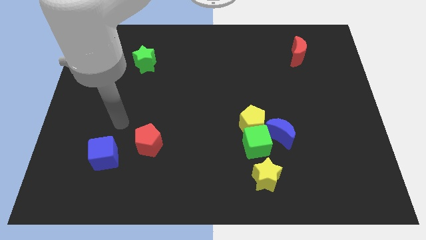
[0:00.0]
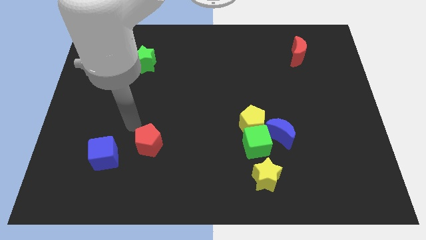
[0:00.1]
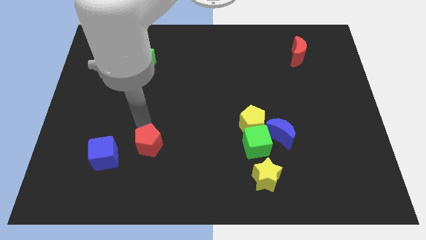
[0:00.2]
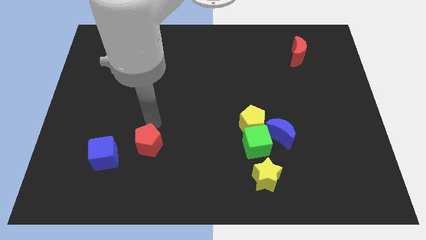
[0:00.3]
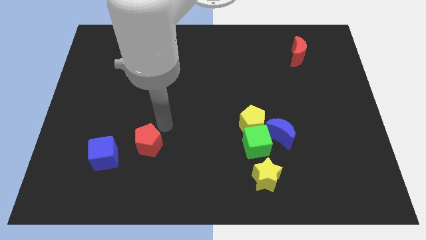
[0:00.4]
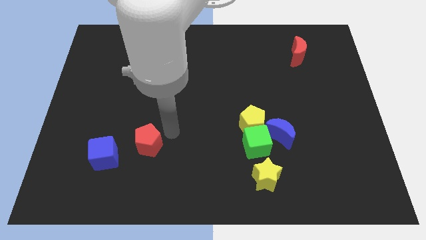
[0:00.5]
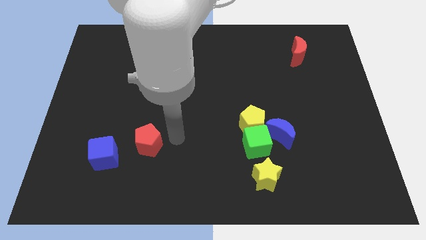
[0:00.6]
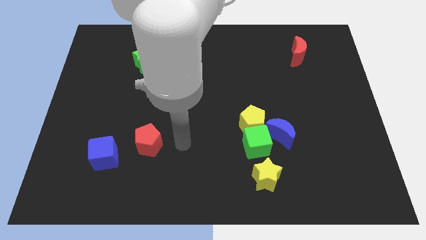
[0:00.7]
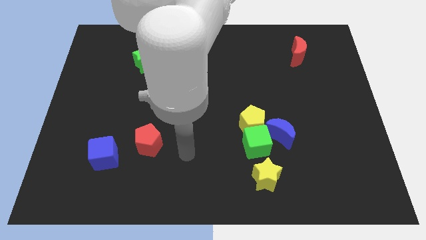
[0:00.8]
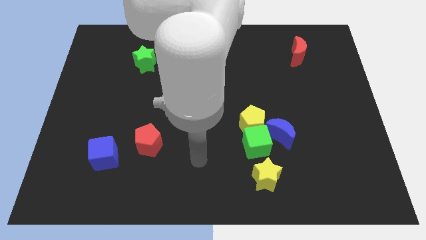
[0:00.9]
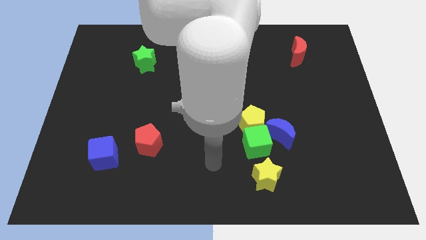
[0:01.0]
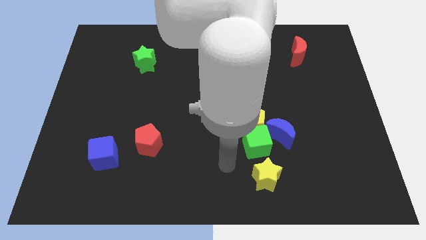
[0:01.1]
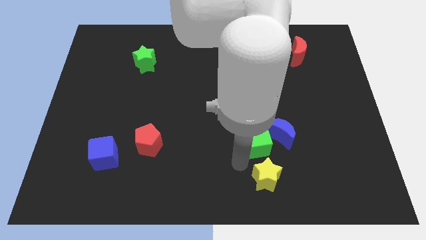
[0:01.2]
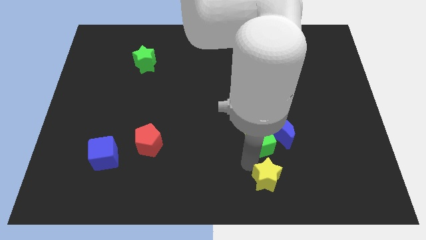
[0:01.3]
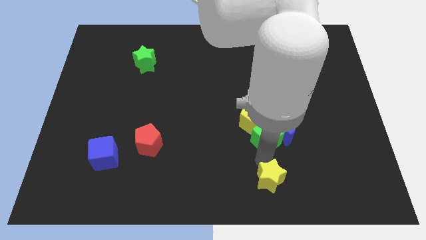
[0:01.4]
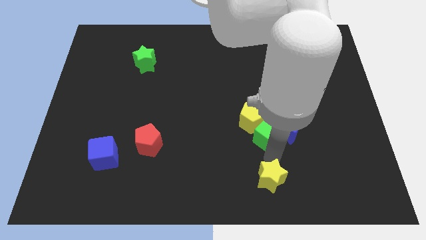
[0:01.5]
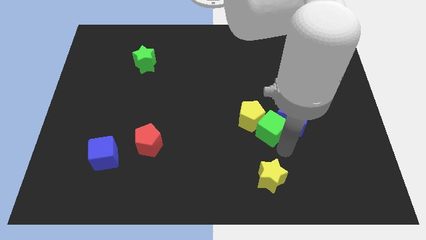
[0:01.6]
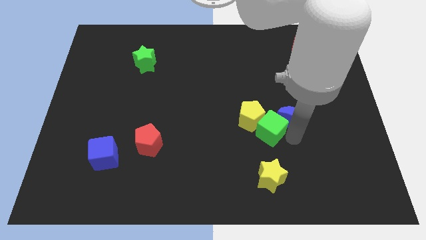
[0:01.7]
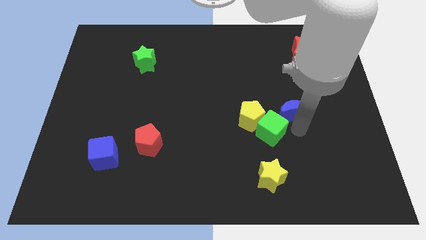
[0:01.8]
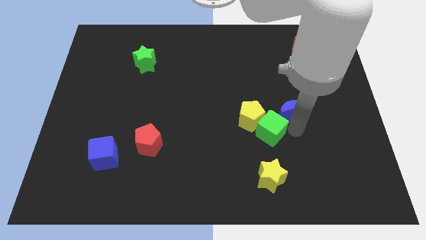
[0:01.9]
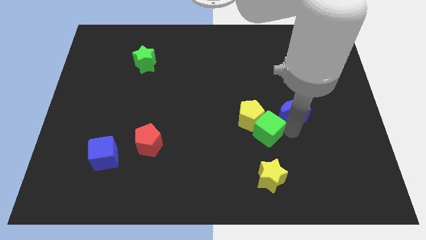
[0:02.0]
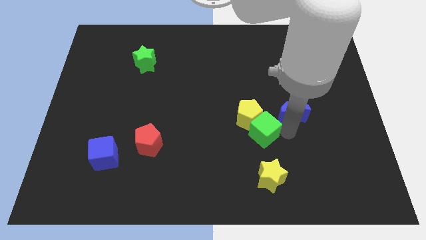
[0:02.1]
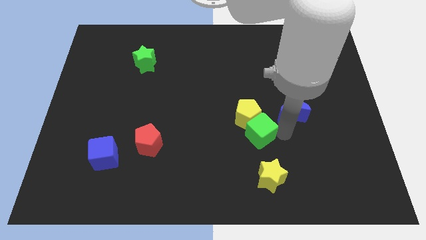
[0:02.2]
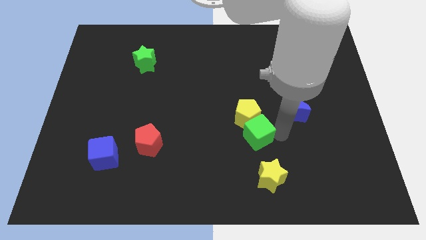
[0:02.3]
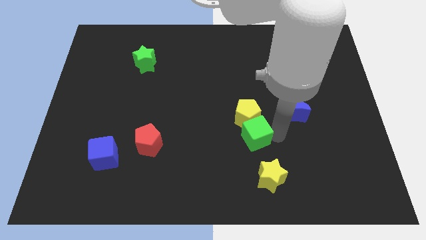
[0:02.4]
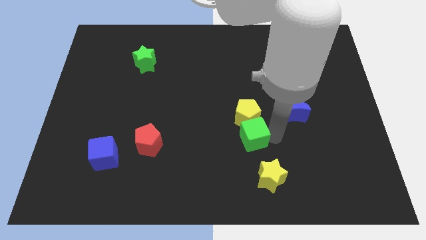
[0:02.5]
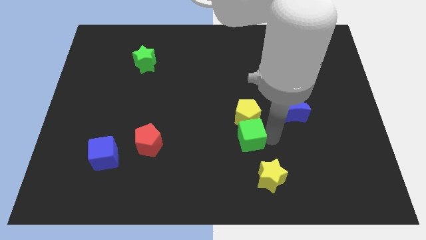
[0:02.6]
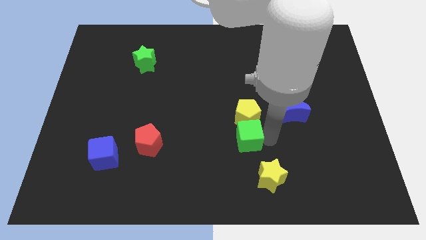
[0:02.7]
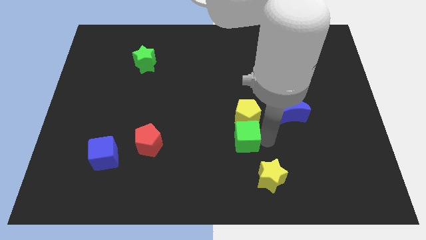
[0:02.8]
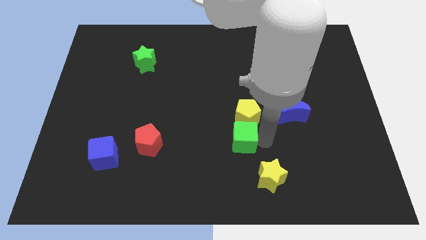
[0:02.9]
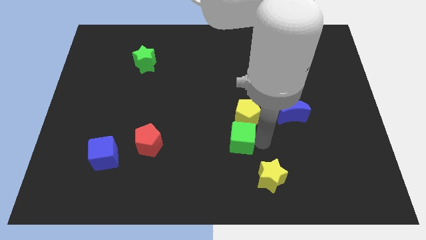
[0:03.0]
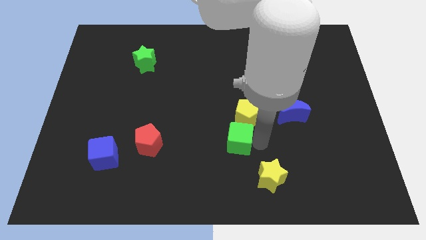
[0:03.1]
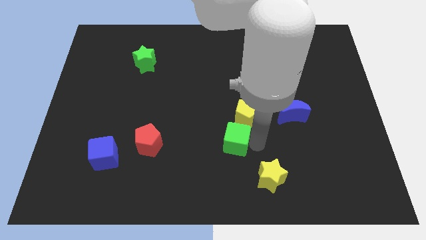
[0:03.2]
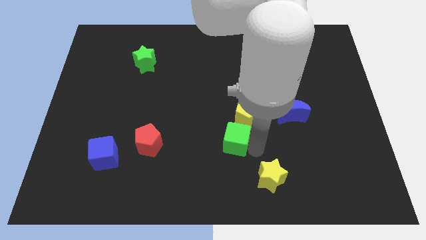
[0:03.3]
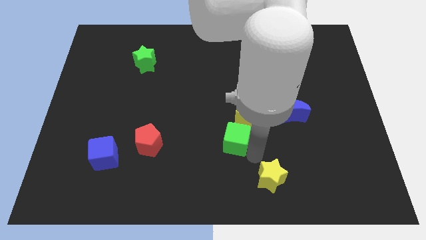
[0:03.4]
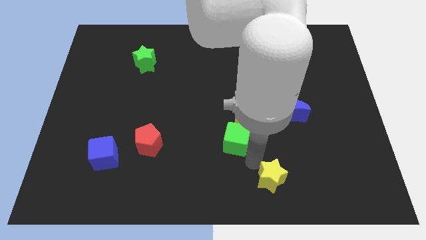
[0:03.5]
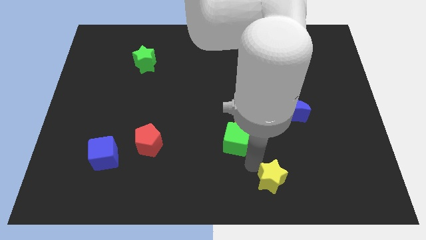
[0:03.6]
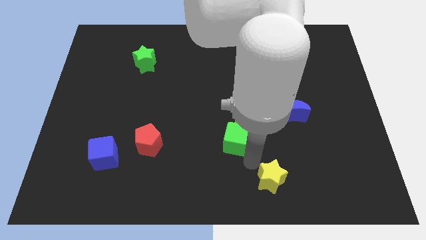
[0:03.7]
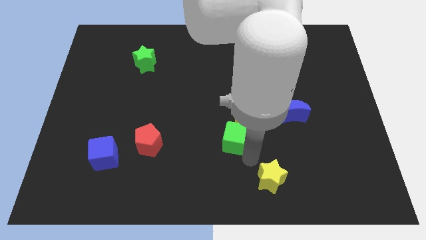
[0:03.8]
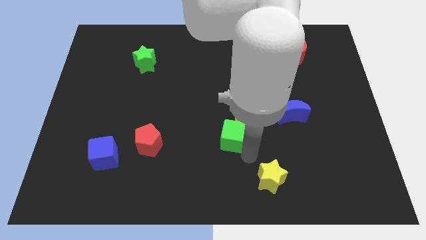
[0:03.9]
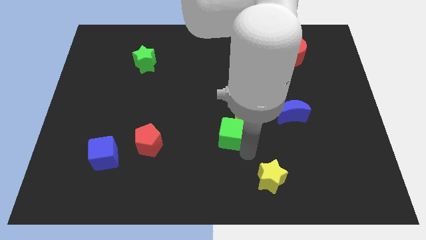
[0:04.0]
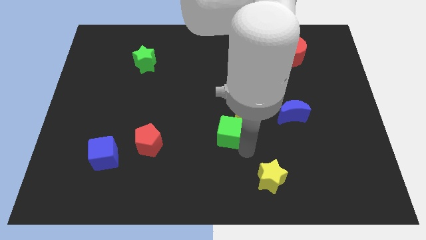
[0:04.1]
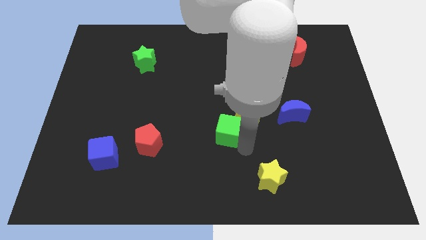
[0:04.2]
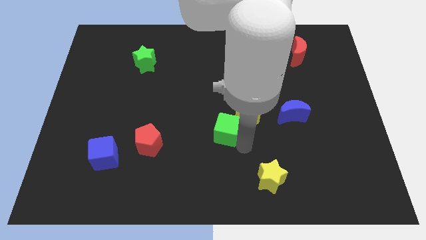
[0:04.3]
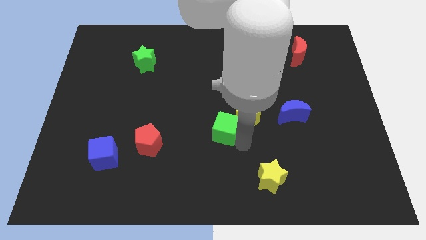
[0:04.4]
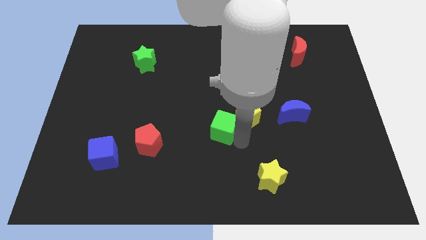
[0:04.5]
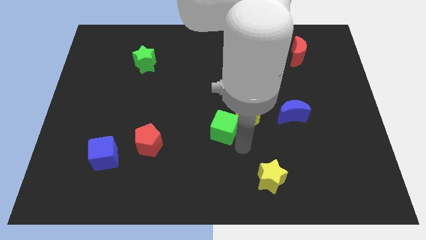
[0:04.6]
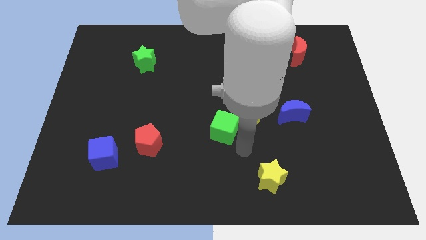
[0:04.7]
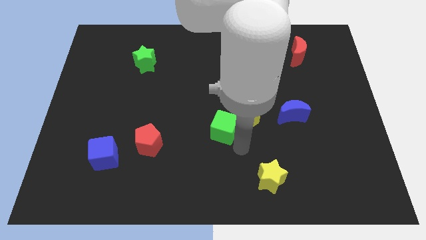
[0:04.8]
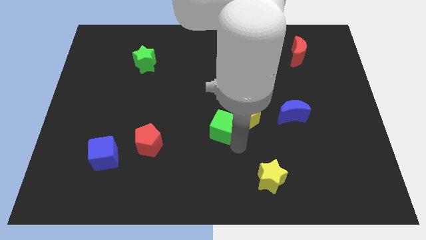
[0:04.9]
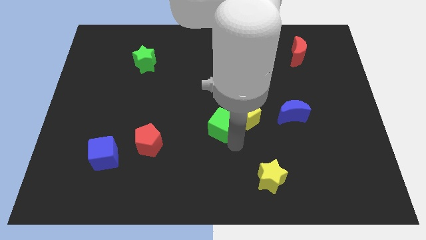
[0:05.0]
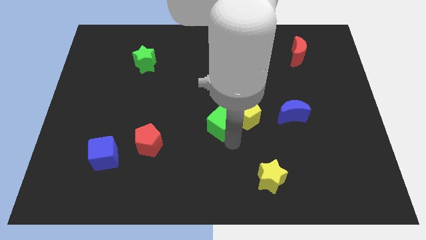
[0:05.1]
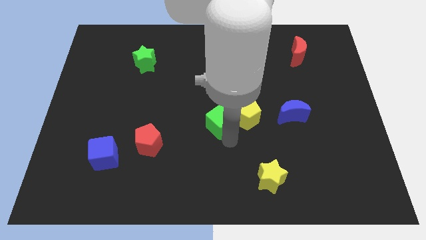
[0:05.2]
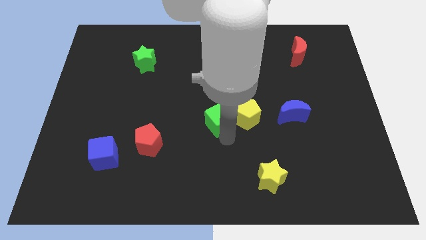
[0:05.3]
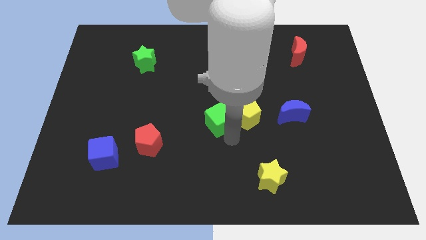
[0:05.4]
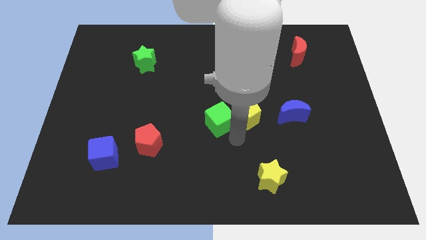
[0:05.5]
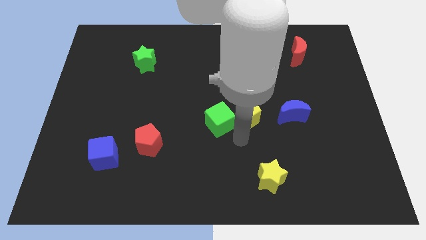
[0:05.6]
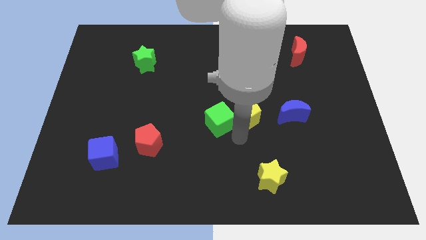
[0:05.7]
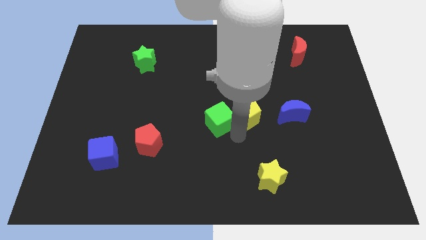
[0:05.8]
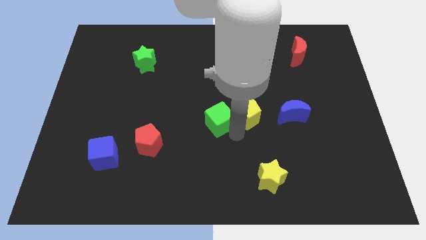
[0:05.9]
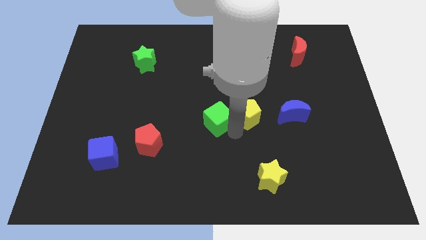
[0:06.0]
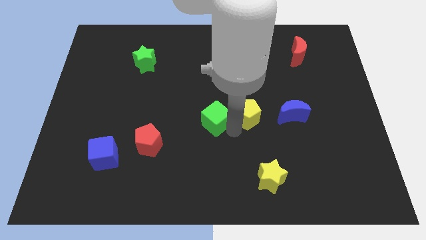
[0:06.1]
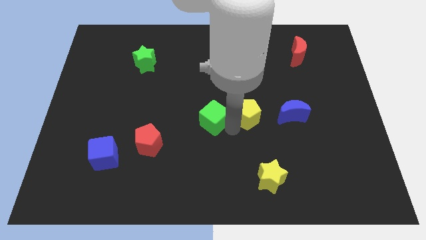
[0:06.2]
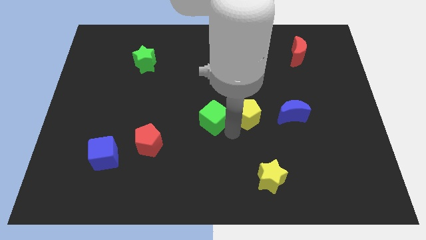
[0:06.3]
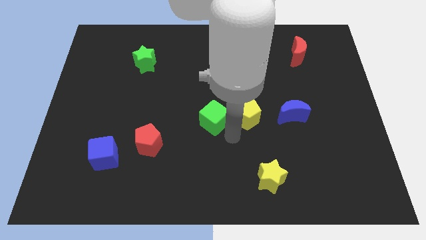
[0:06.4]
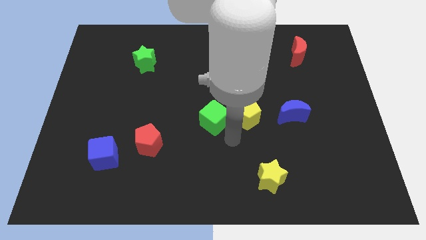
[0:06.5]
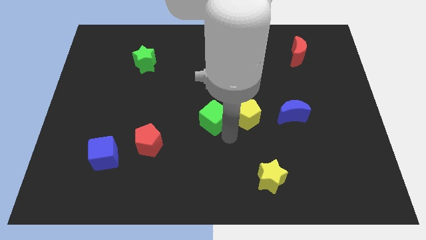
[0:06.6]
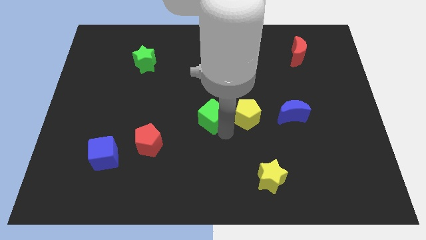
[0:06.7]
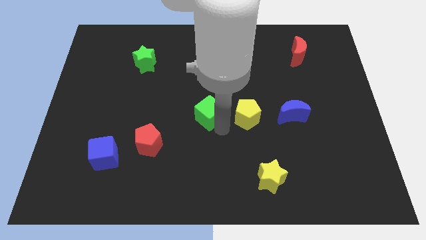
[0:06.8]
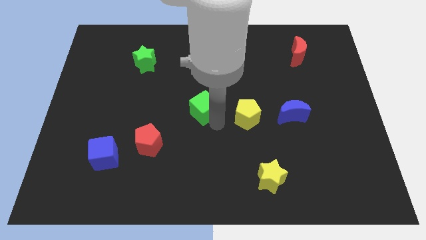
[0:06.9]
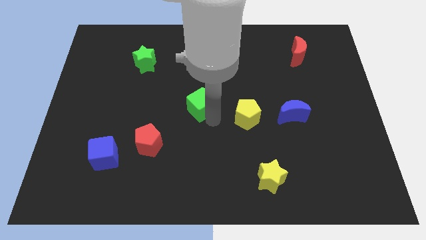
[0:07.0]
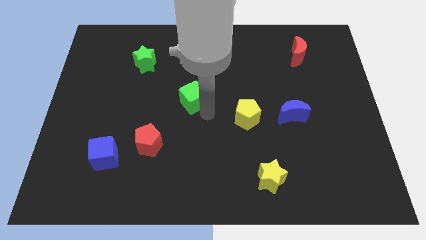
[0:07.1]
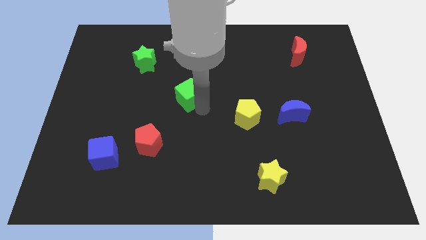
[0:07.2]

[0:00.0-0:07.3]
push the green cube up and left diagonally

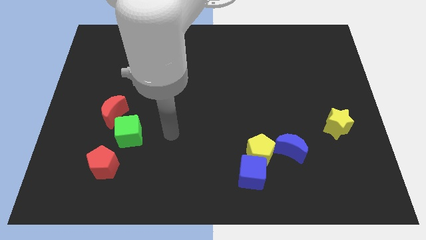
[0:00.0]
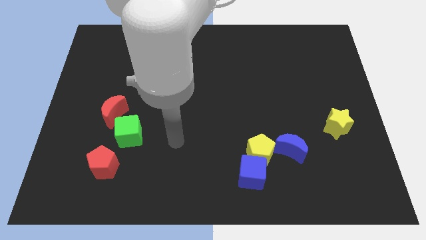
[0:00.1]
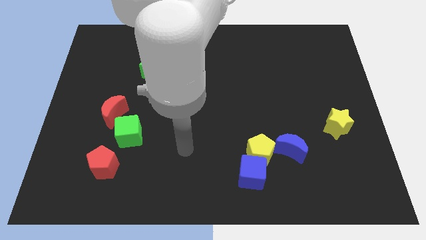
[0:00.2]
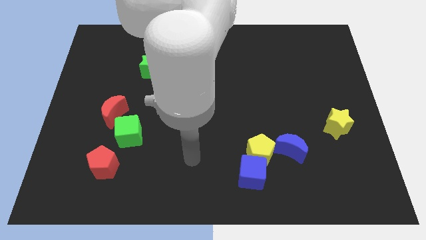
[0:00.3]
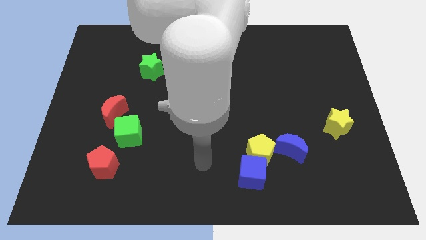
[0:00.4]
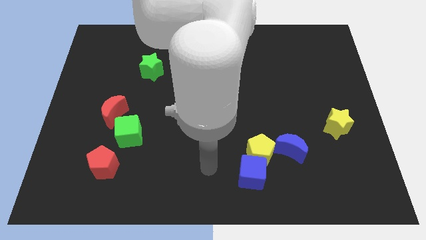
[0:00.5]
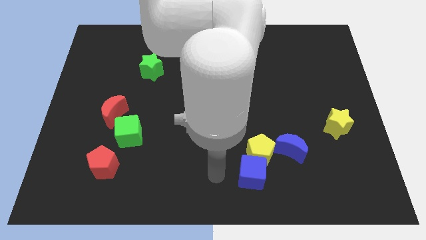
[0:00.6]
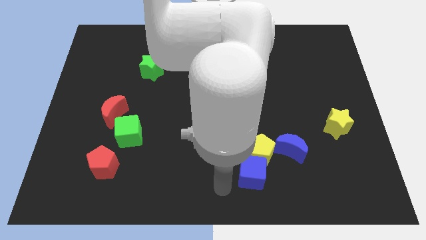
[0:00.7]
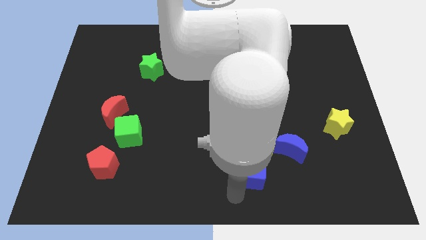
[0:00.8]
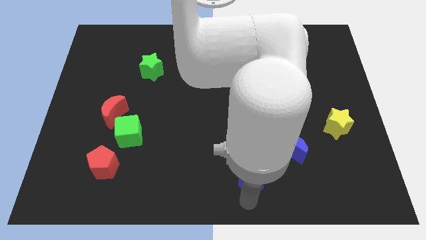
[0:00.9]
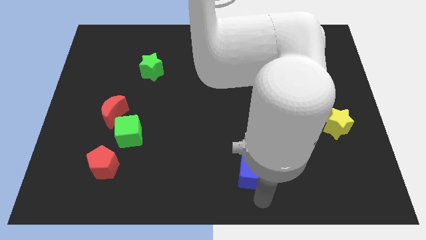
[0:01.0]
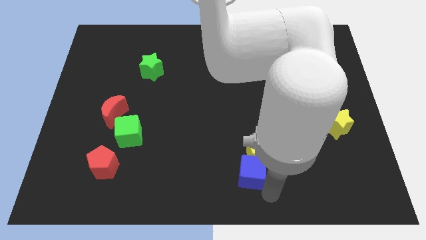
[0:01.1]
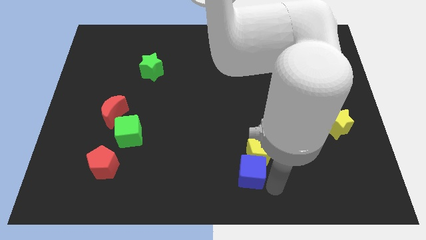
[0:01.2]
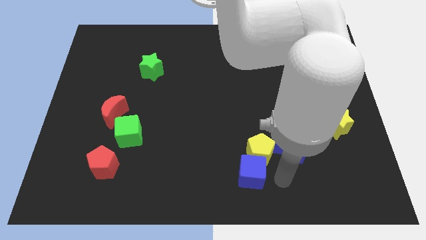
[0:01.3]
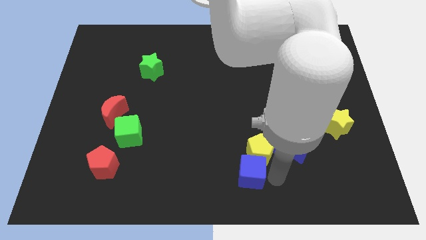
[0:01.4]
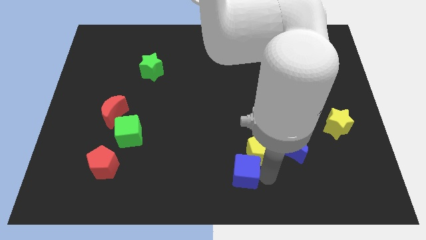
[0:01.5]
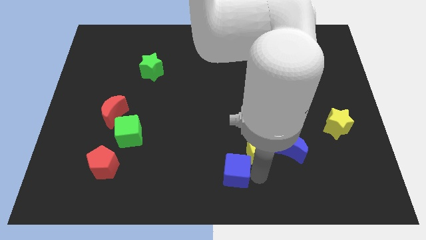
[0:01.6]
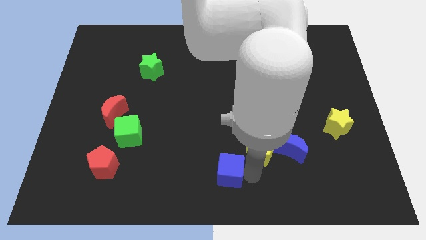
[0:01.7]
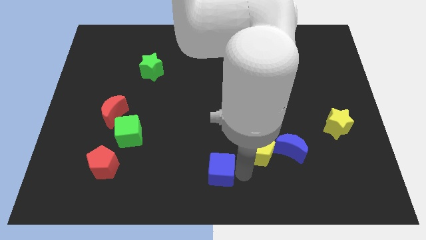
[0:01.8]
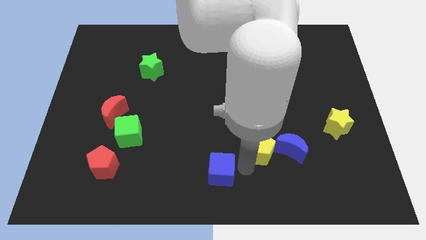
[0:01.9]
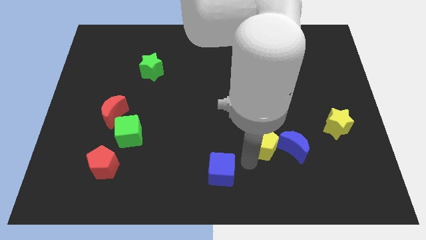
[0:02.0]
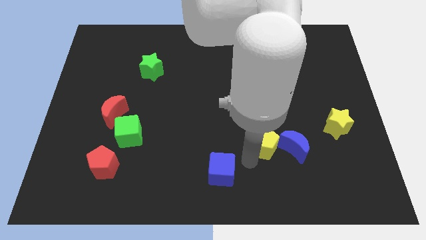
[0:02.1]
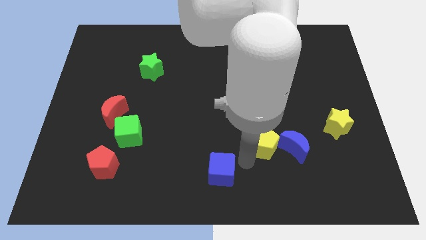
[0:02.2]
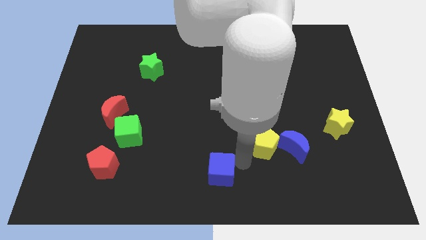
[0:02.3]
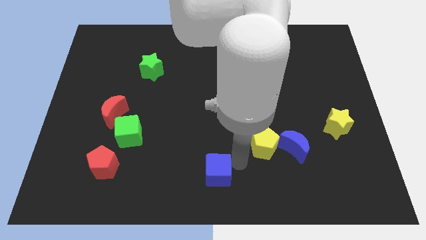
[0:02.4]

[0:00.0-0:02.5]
slide the blue cube left a bit
